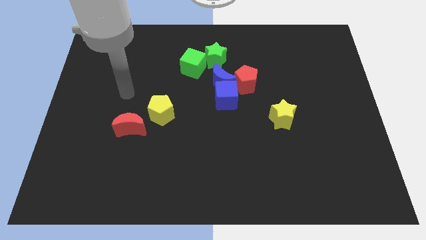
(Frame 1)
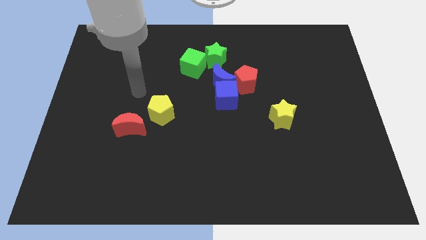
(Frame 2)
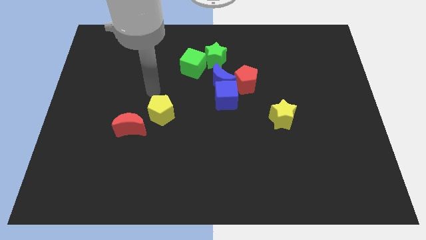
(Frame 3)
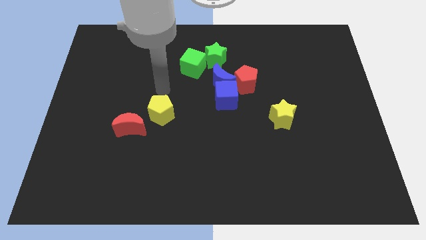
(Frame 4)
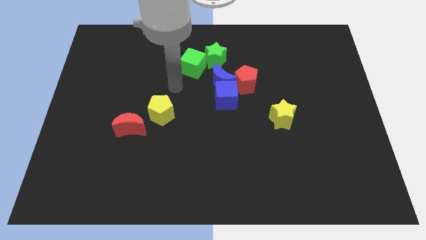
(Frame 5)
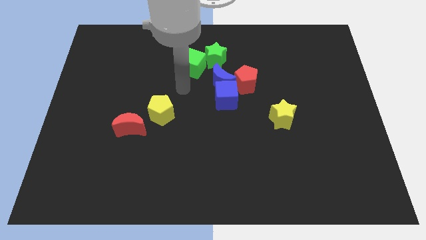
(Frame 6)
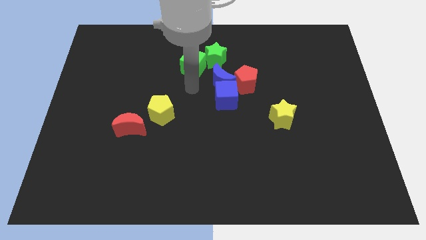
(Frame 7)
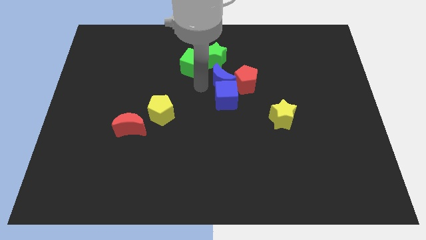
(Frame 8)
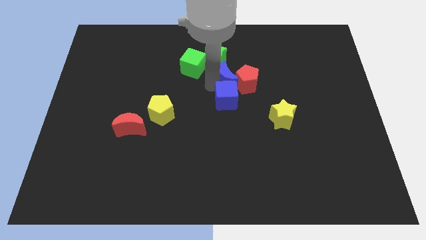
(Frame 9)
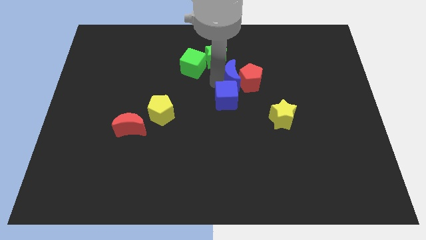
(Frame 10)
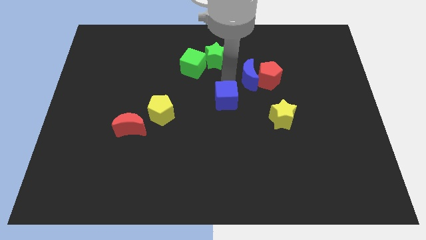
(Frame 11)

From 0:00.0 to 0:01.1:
separate the blue cube from the blue moon and red pentagon

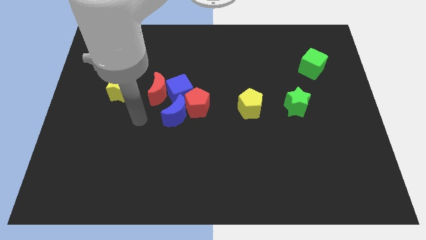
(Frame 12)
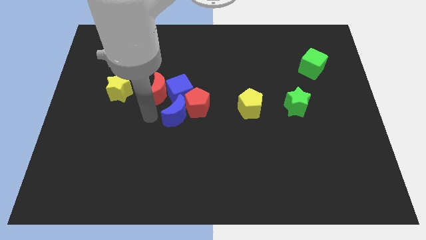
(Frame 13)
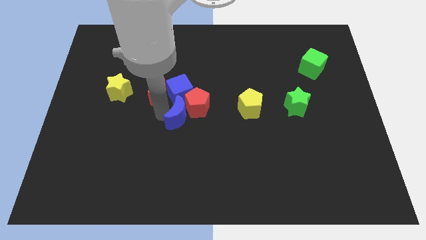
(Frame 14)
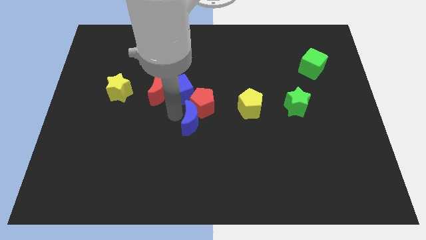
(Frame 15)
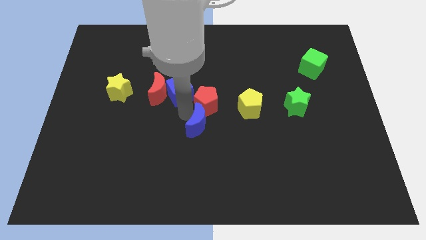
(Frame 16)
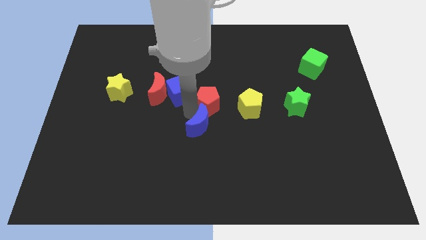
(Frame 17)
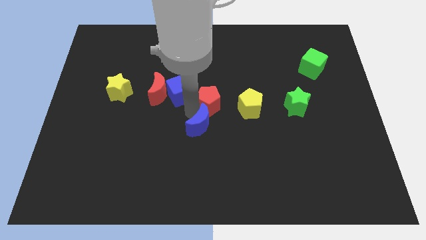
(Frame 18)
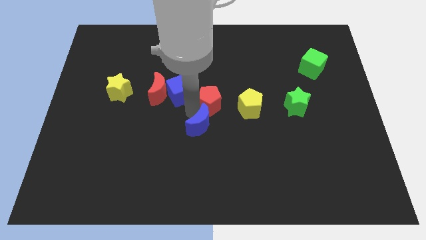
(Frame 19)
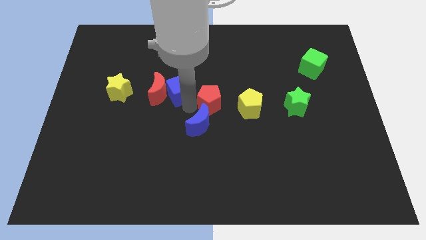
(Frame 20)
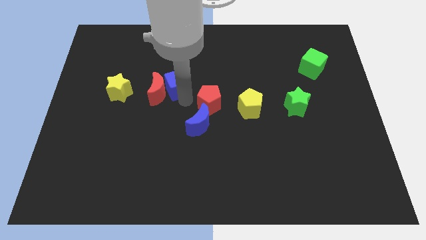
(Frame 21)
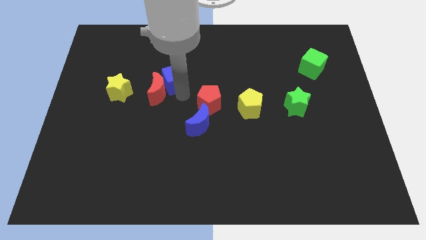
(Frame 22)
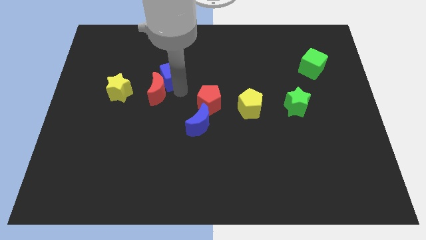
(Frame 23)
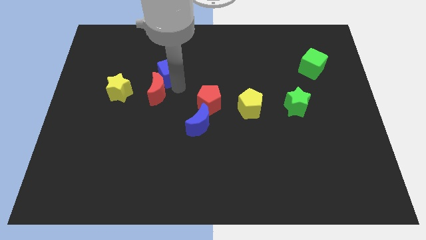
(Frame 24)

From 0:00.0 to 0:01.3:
pull the blue cube apart from the group

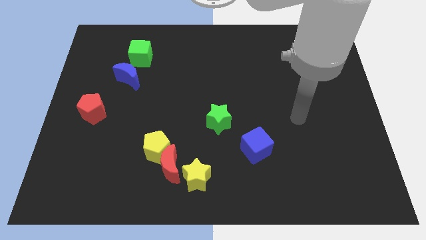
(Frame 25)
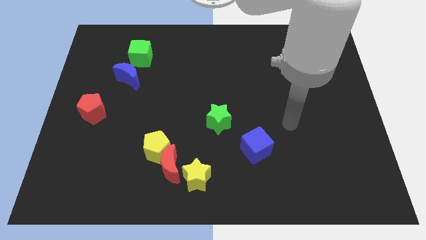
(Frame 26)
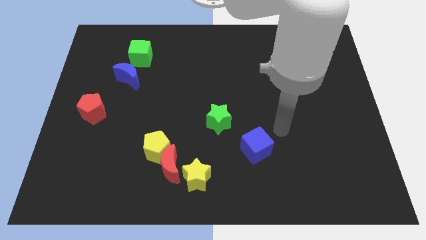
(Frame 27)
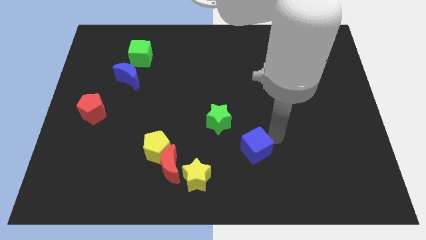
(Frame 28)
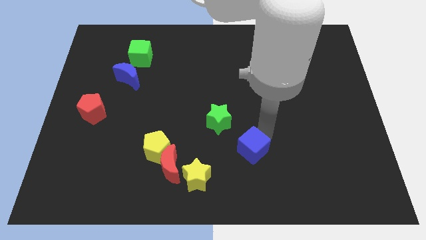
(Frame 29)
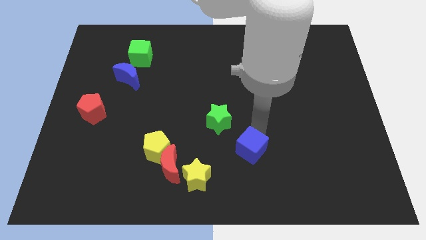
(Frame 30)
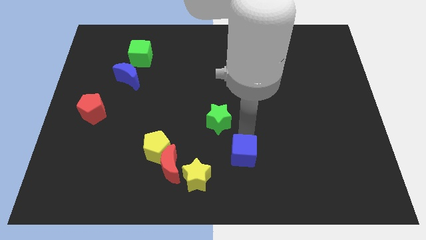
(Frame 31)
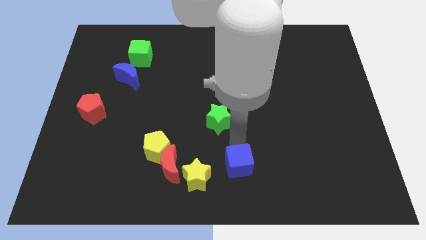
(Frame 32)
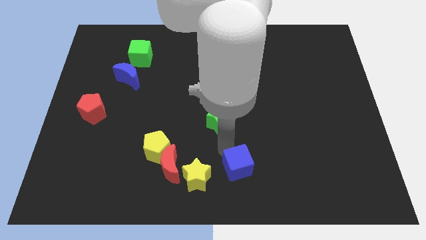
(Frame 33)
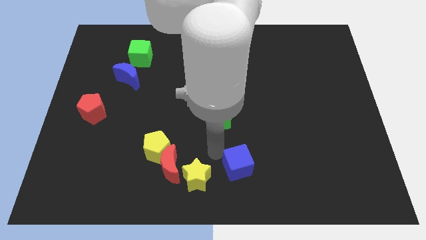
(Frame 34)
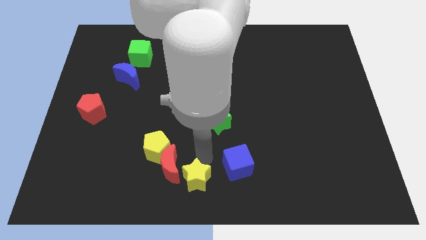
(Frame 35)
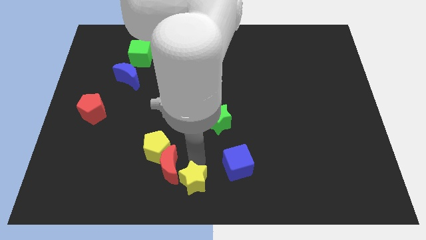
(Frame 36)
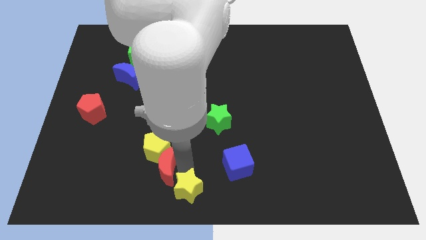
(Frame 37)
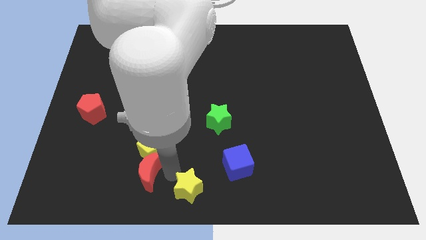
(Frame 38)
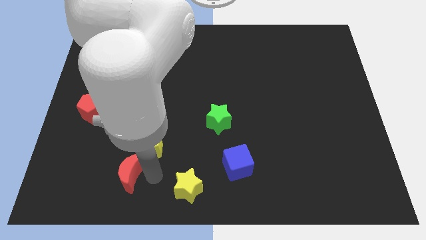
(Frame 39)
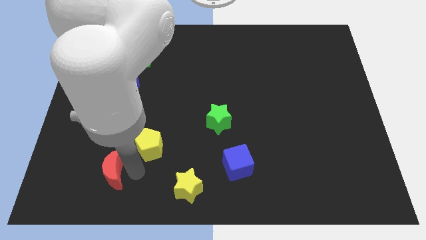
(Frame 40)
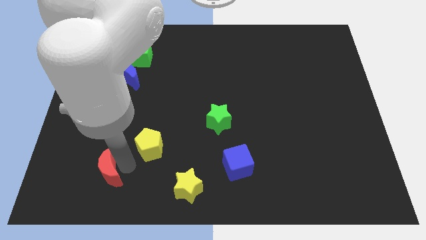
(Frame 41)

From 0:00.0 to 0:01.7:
pull the yellow pentagon apart from the red moon

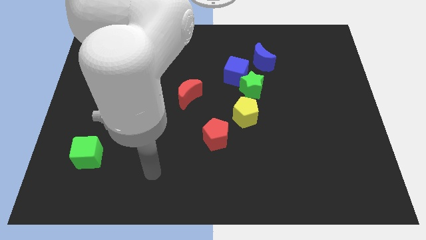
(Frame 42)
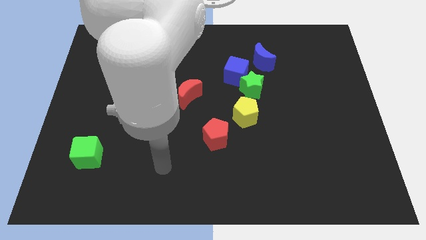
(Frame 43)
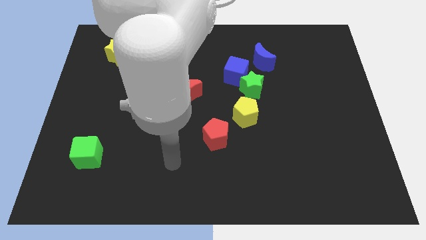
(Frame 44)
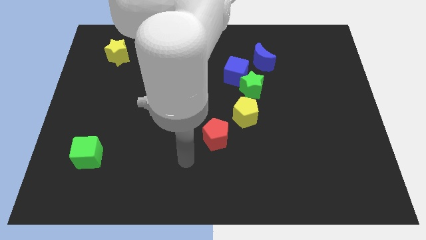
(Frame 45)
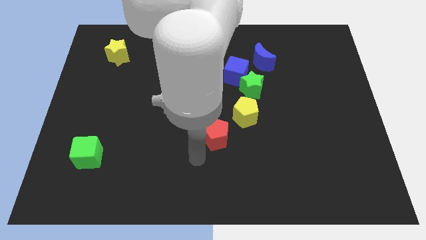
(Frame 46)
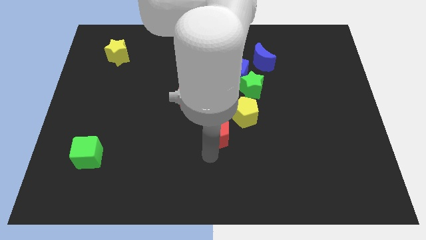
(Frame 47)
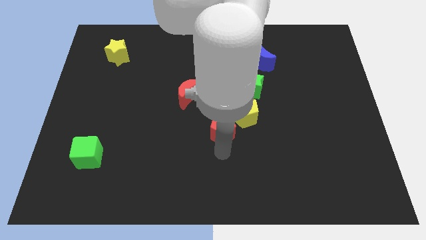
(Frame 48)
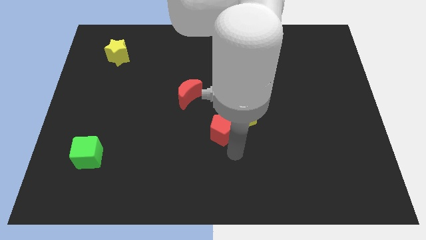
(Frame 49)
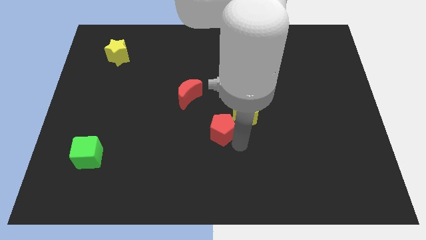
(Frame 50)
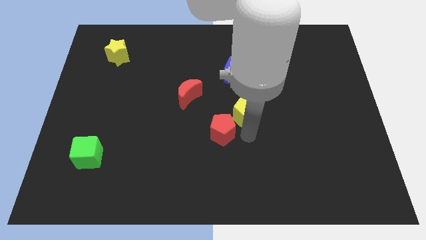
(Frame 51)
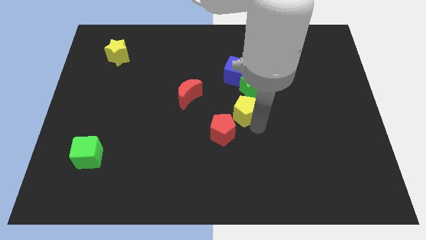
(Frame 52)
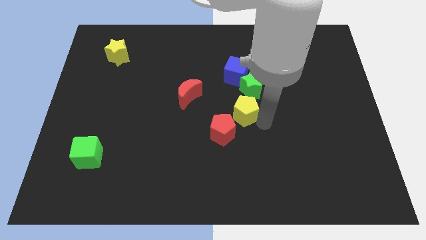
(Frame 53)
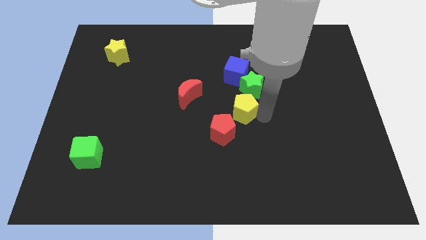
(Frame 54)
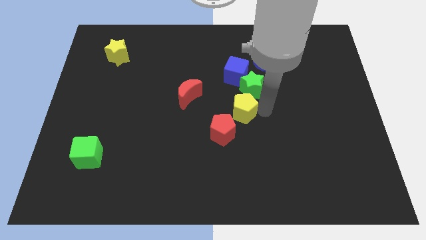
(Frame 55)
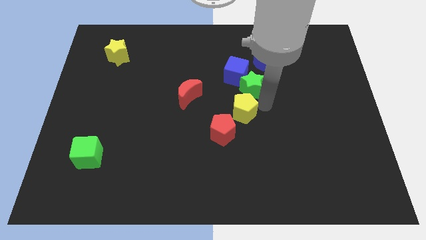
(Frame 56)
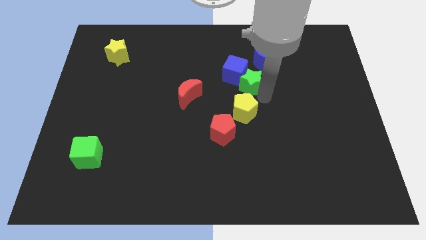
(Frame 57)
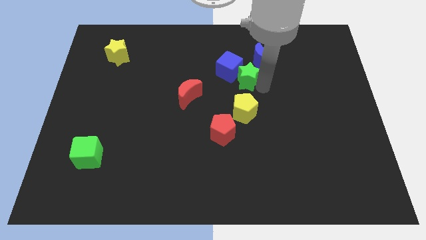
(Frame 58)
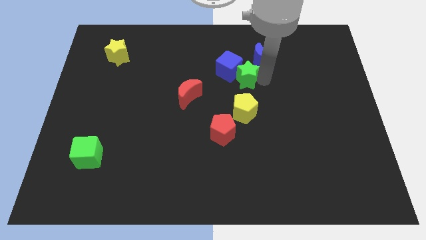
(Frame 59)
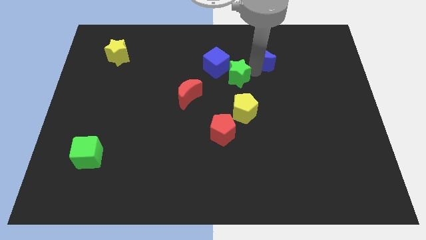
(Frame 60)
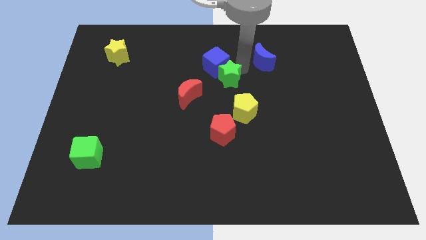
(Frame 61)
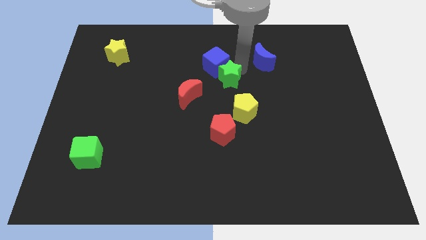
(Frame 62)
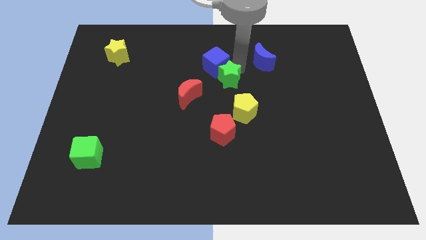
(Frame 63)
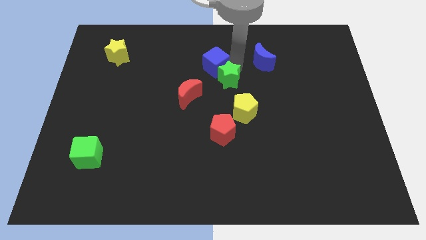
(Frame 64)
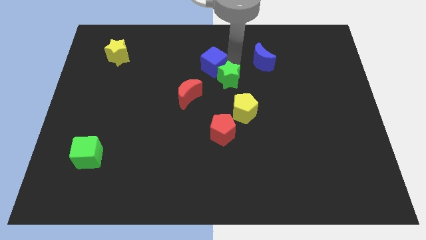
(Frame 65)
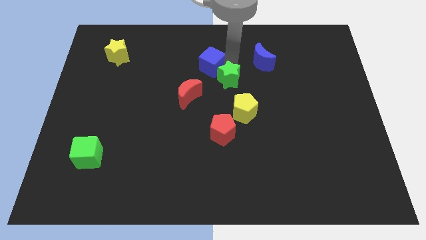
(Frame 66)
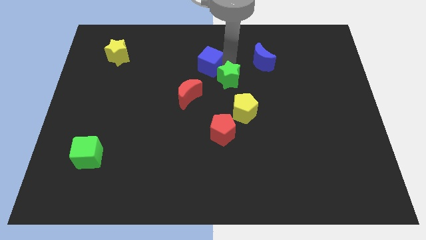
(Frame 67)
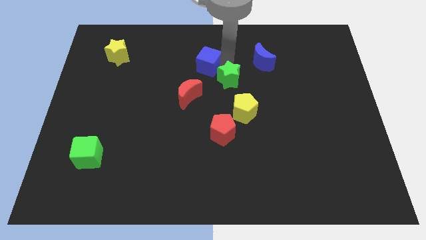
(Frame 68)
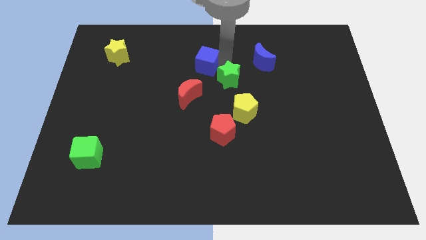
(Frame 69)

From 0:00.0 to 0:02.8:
separate the blue cube from the green star and blue moon

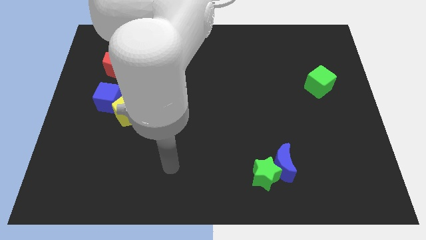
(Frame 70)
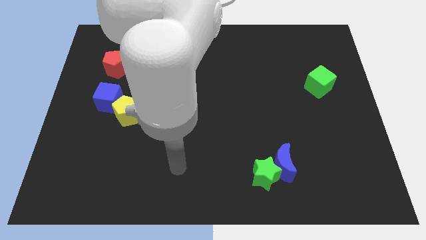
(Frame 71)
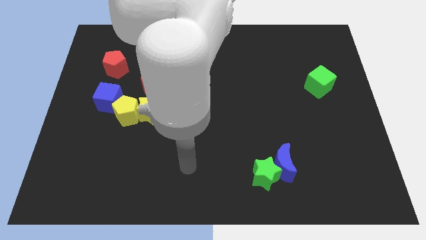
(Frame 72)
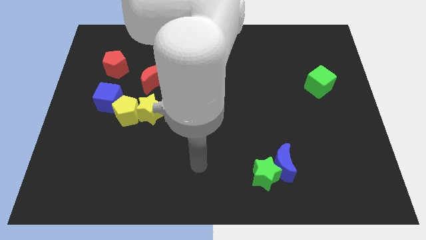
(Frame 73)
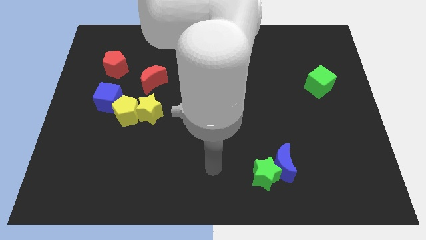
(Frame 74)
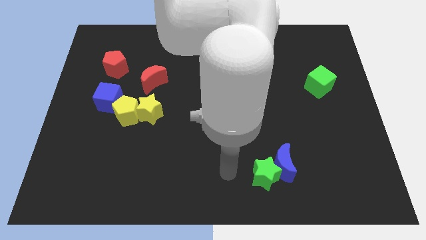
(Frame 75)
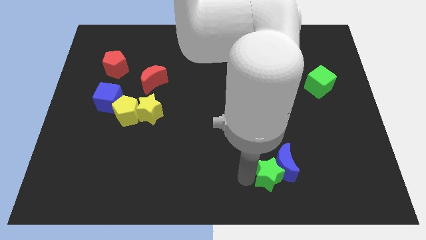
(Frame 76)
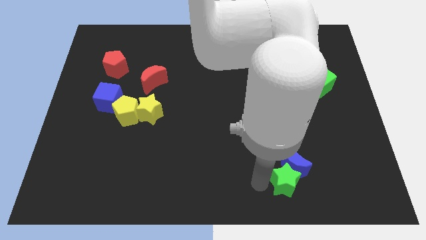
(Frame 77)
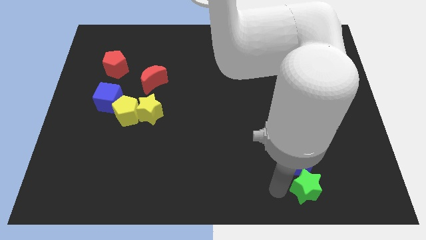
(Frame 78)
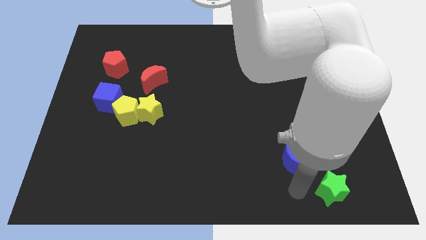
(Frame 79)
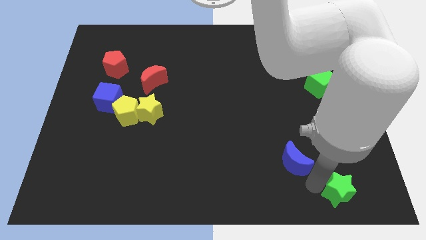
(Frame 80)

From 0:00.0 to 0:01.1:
separate the blue moon from the green star

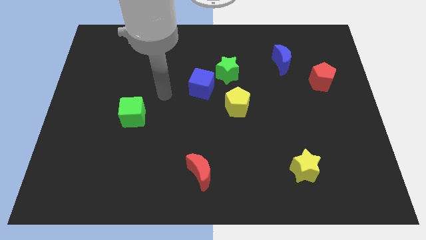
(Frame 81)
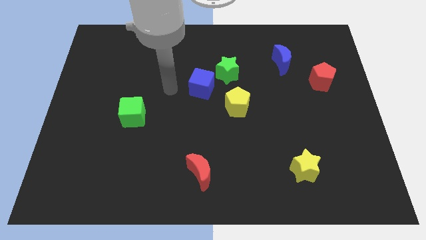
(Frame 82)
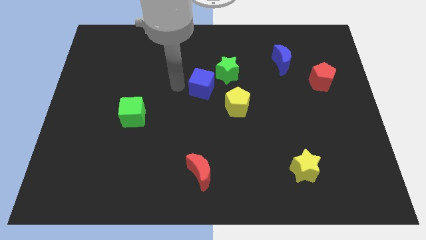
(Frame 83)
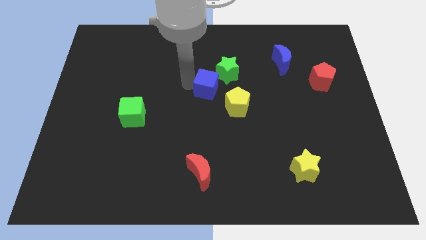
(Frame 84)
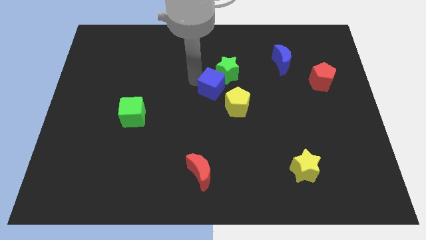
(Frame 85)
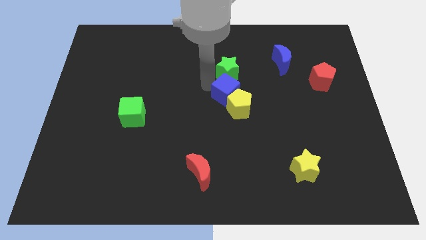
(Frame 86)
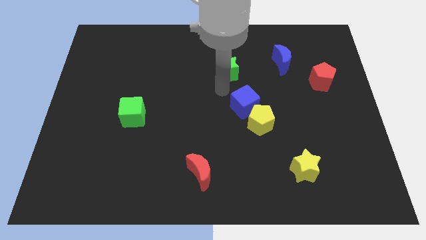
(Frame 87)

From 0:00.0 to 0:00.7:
separate the green star from the blue cube

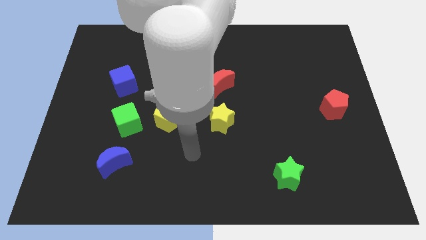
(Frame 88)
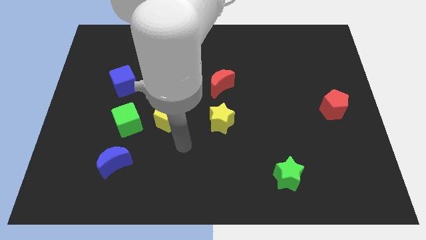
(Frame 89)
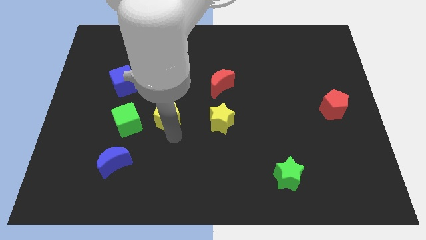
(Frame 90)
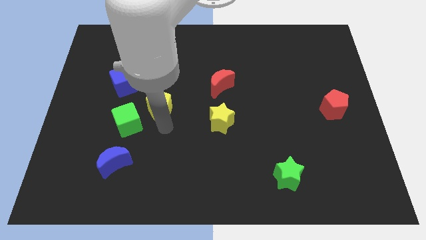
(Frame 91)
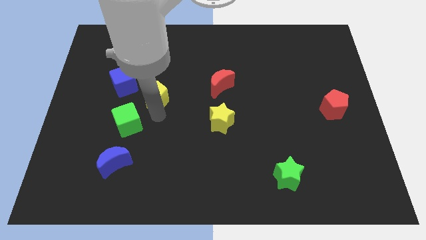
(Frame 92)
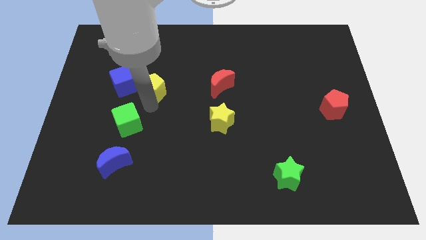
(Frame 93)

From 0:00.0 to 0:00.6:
pull the green cube apart from the yellow pentagon
